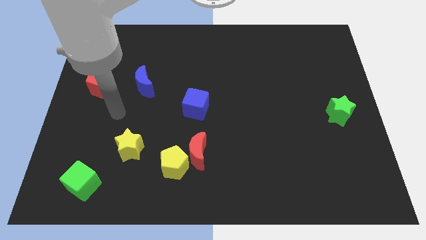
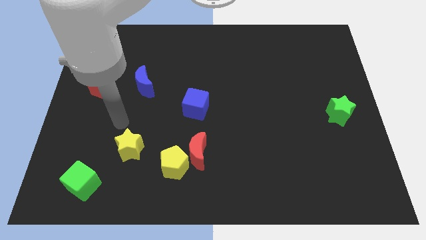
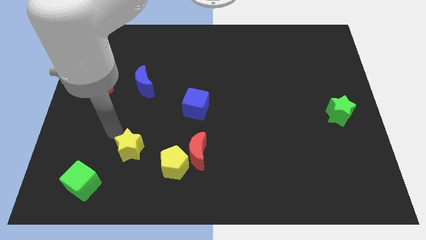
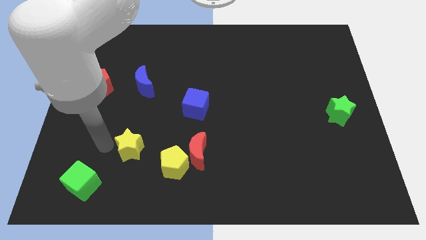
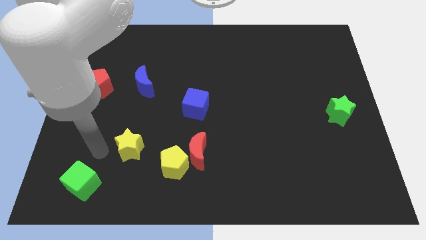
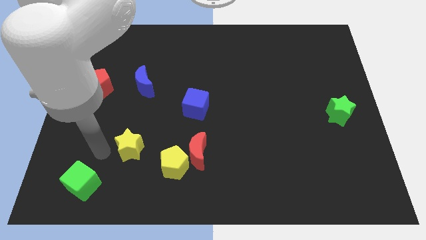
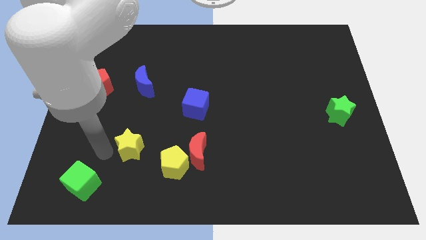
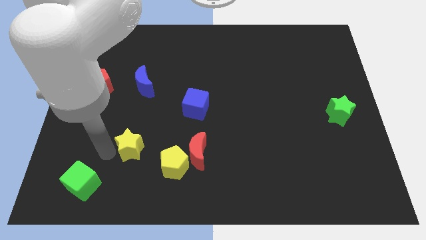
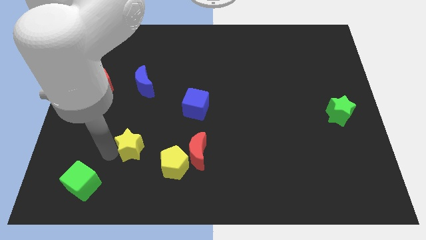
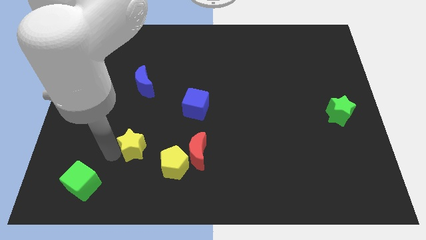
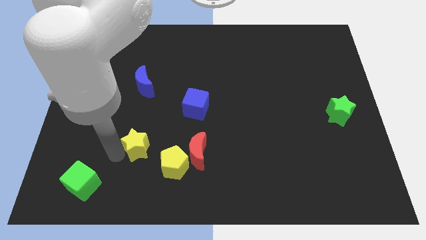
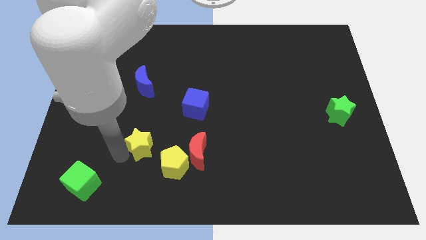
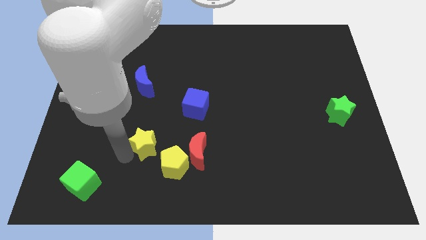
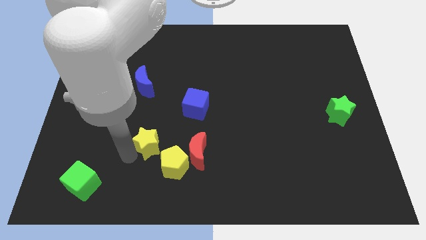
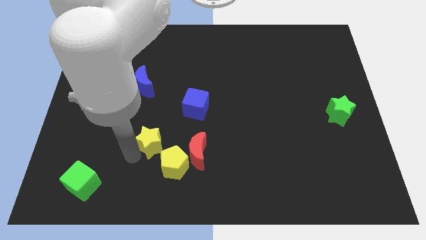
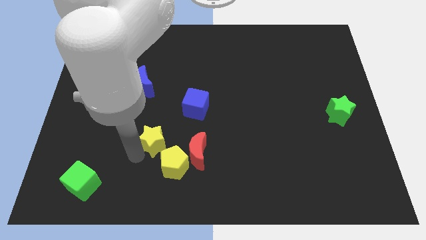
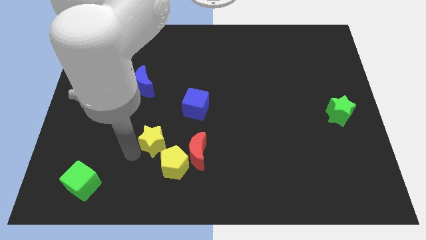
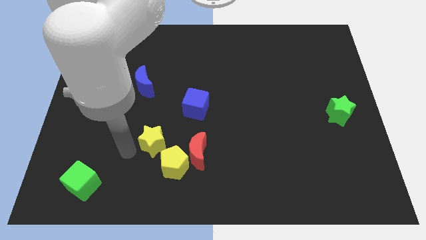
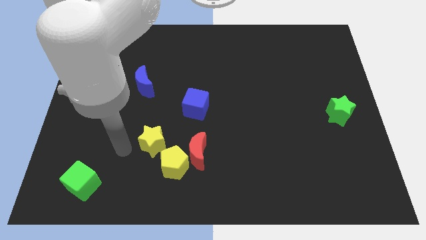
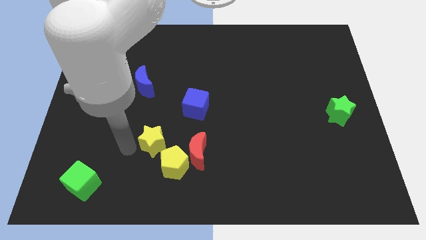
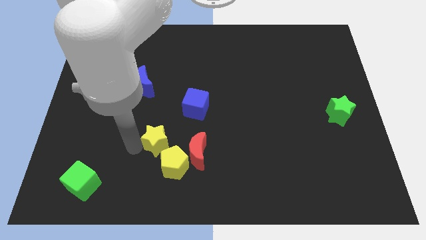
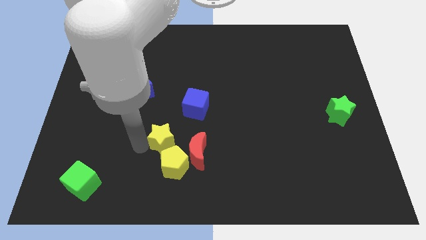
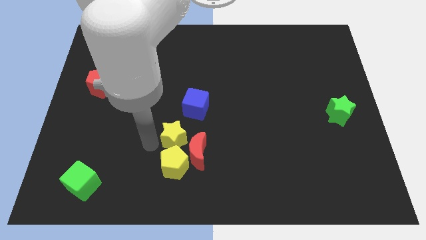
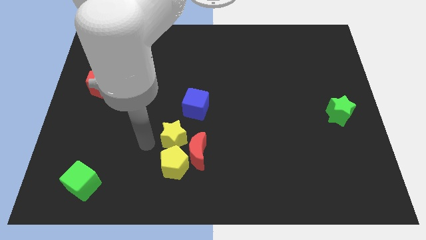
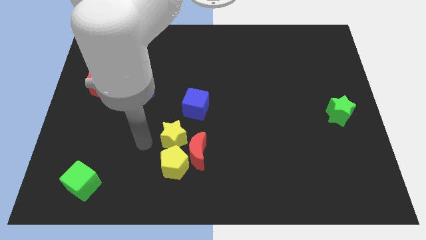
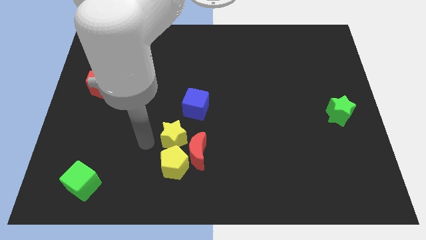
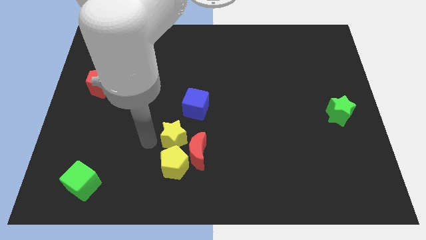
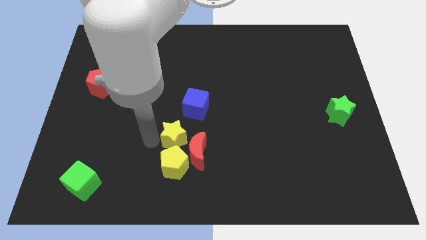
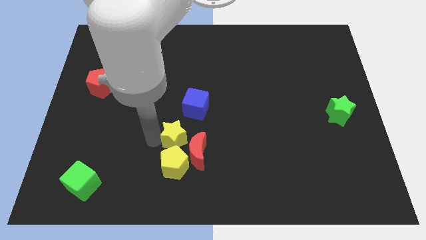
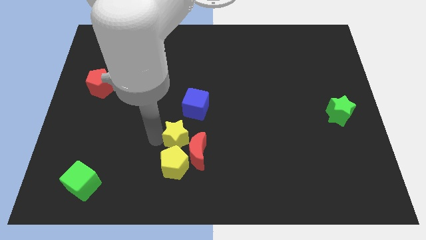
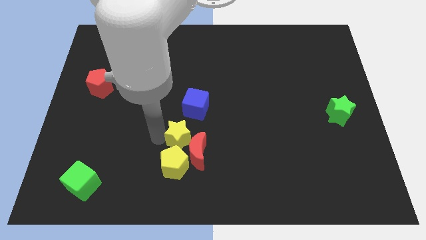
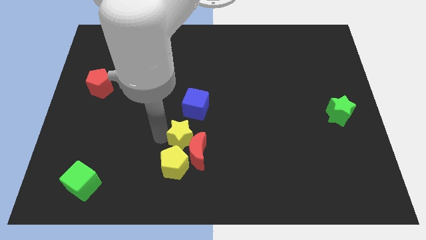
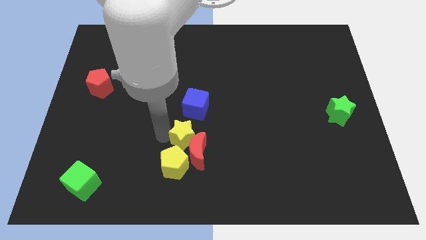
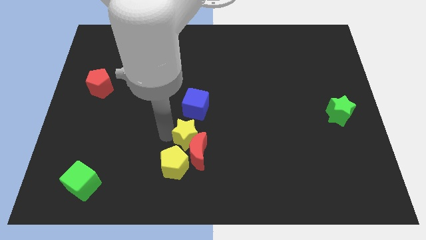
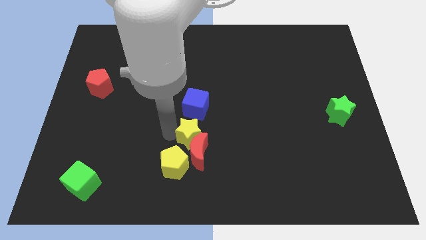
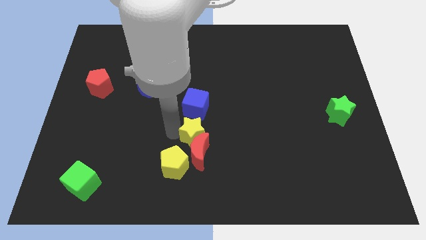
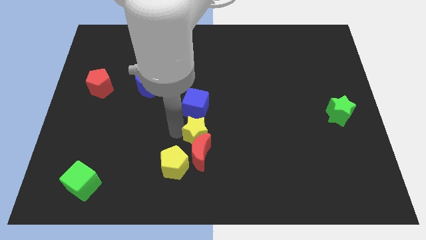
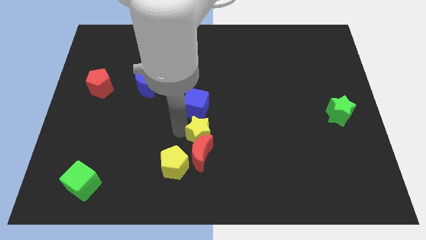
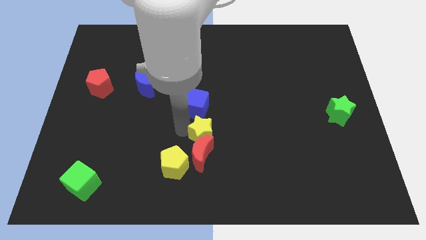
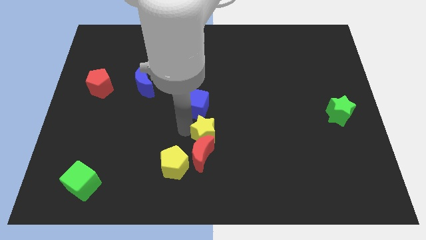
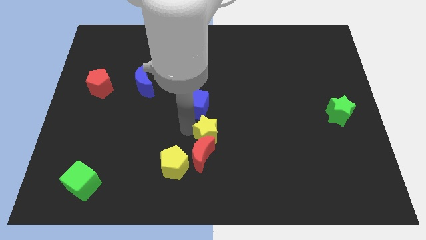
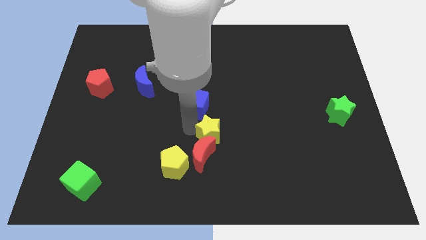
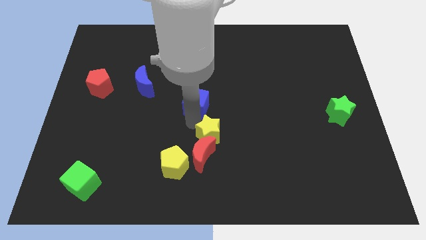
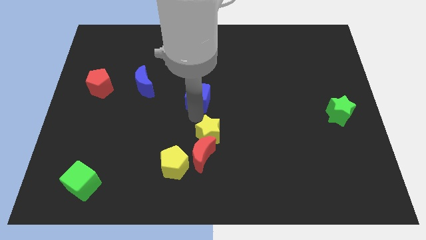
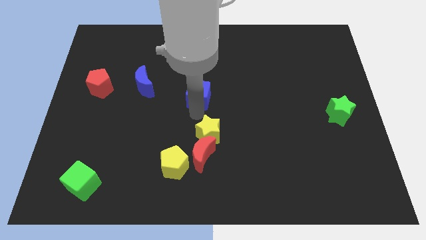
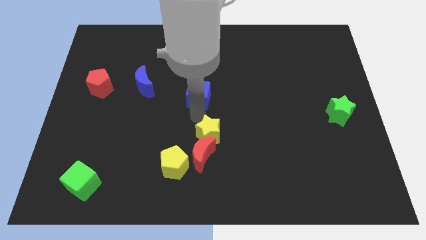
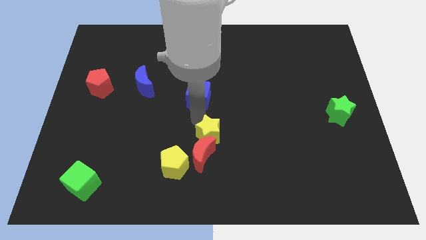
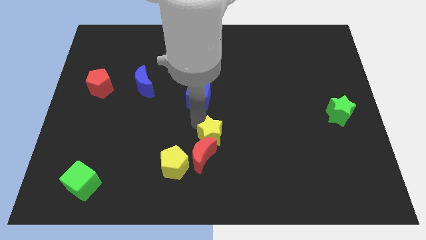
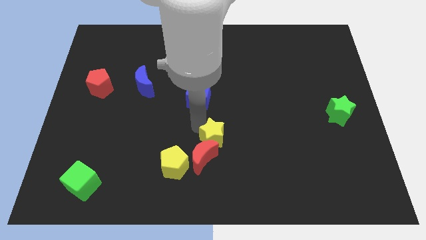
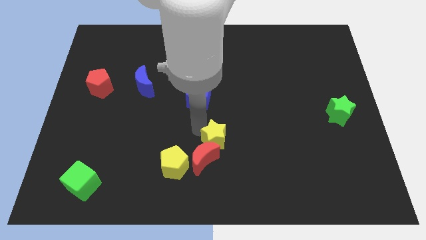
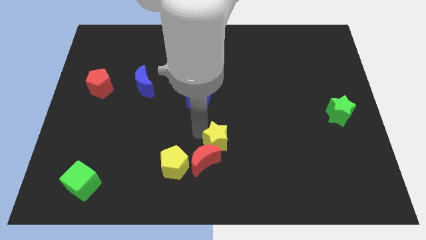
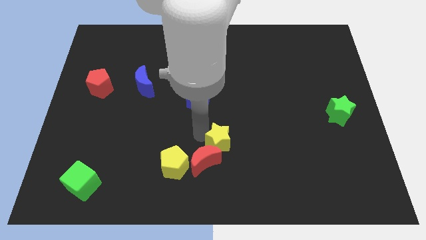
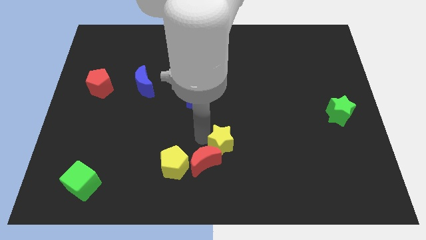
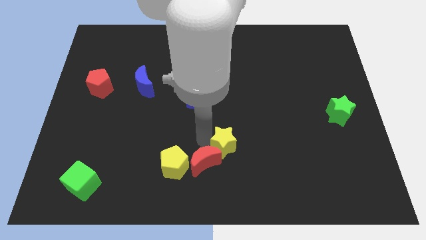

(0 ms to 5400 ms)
move the yellow star to the right side of the yellow pentagon

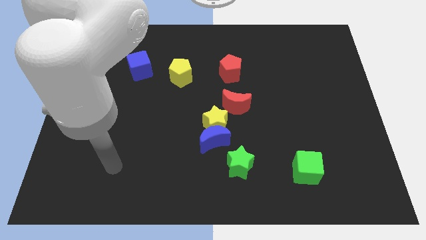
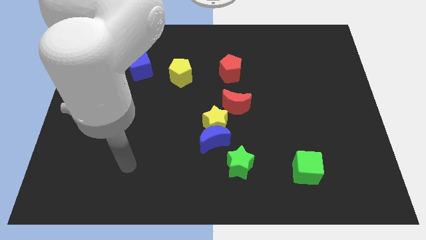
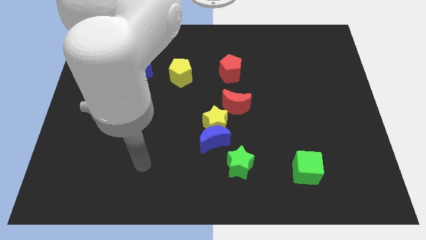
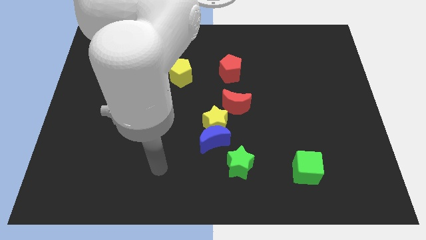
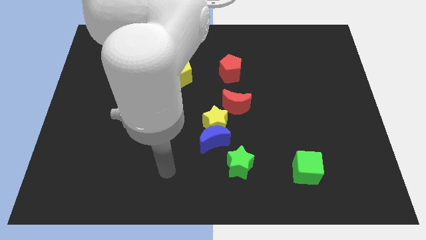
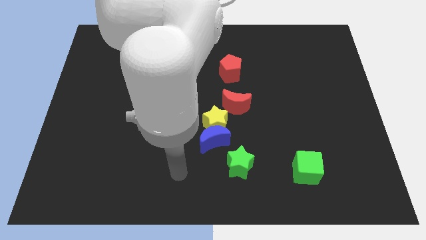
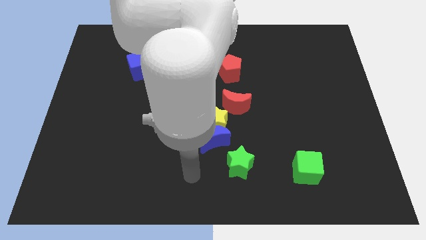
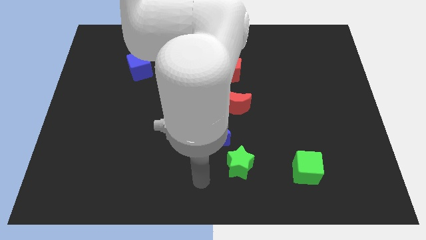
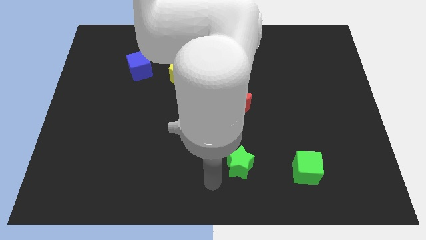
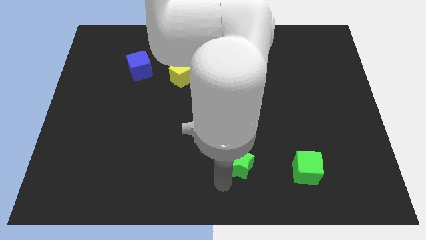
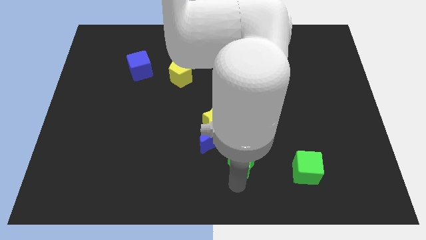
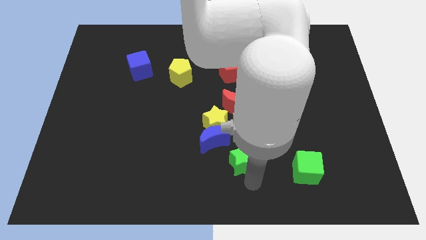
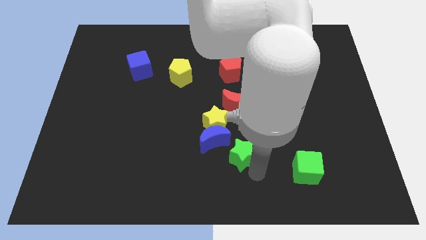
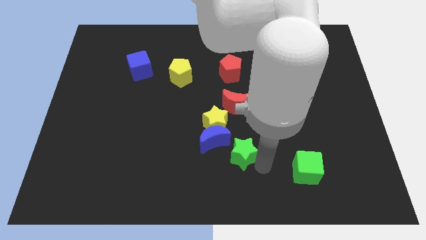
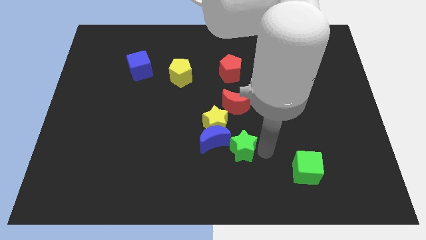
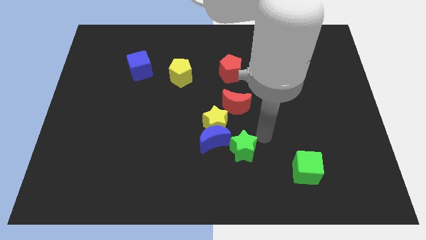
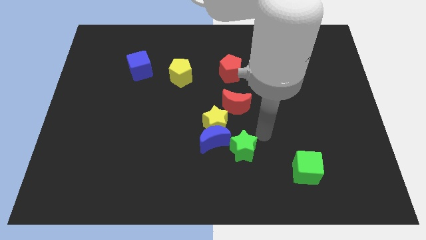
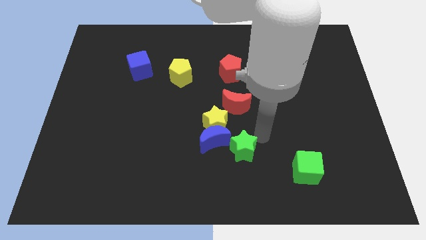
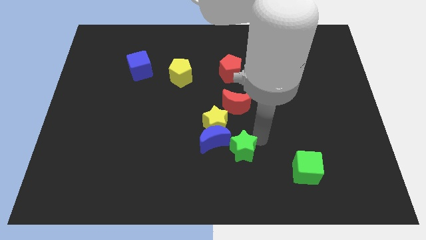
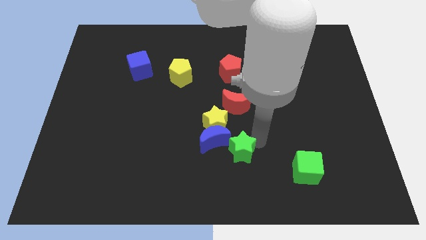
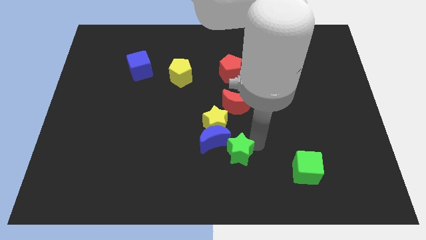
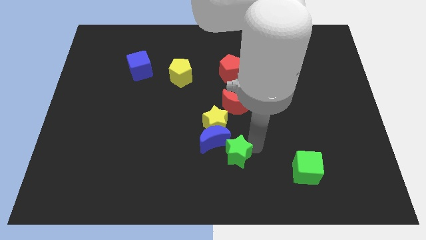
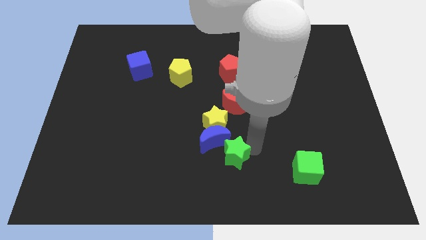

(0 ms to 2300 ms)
slide the green star to the bottom of the blue moon
